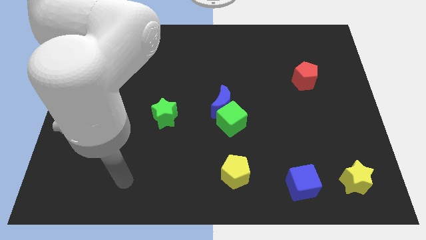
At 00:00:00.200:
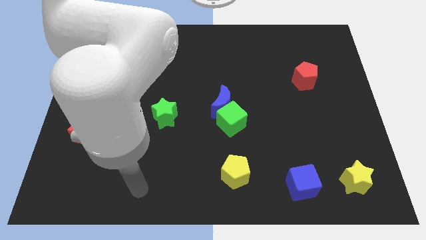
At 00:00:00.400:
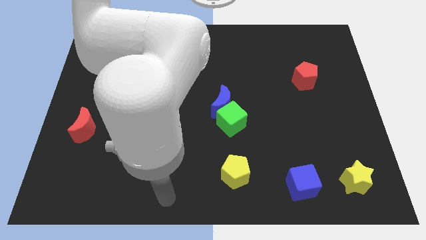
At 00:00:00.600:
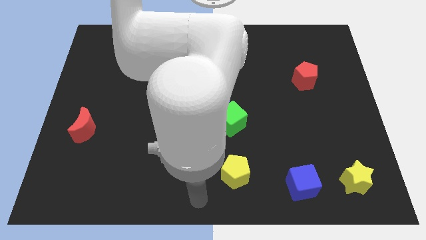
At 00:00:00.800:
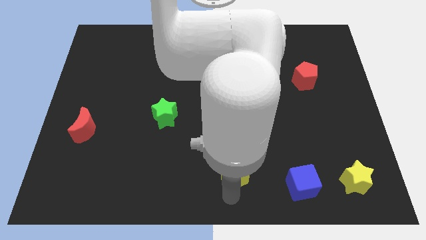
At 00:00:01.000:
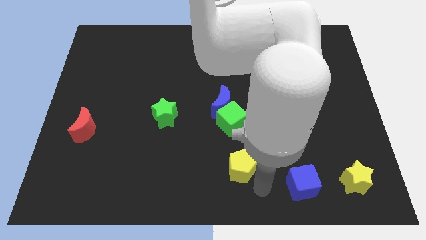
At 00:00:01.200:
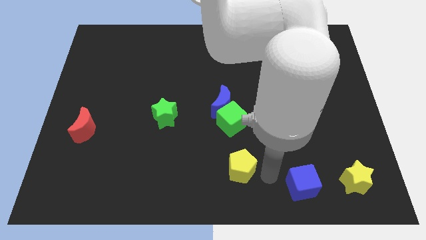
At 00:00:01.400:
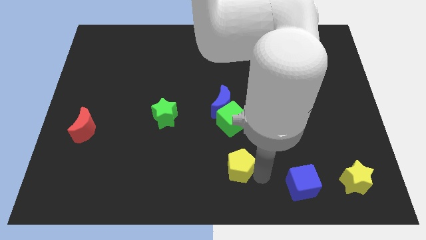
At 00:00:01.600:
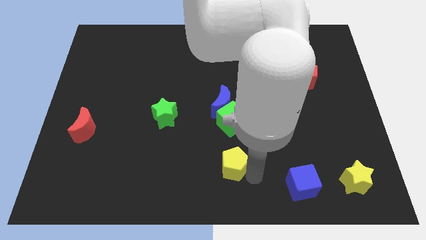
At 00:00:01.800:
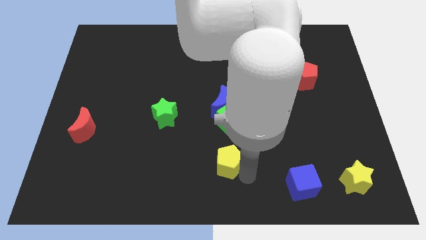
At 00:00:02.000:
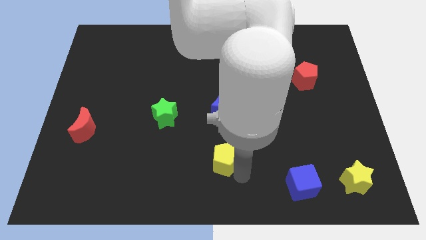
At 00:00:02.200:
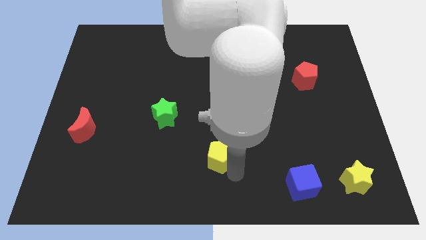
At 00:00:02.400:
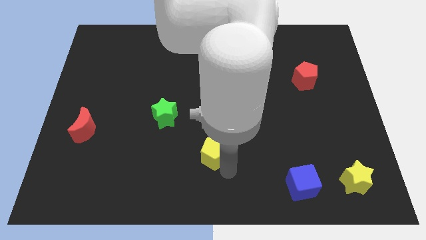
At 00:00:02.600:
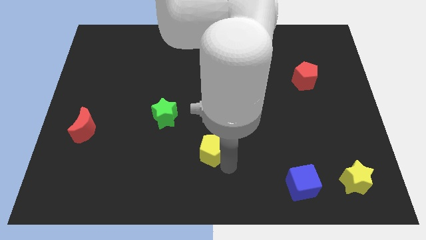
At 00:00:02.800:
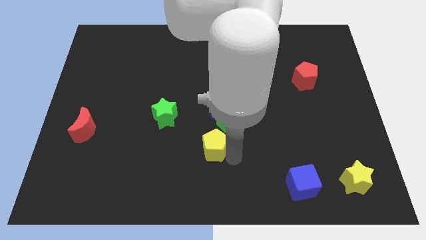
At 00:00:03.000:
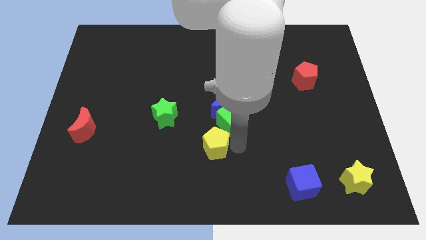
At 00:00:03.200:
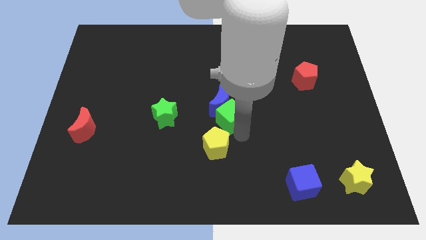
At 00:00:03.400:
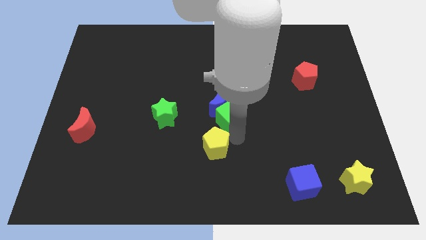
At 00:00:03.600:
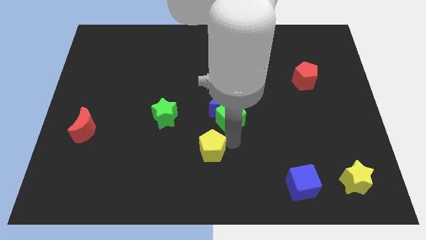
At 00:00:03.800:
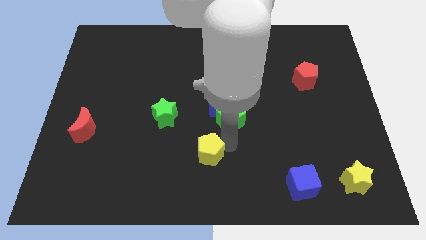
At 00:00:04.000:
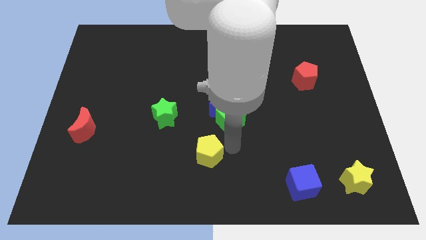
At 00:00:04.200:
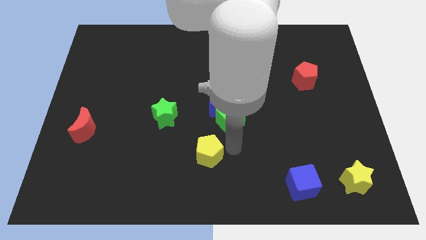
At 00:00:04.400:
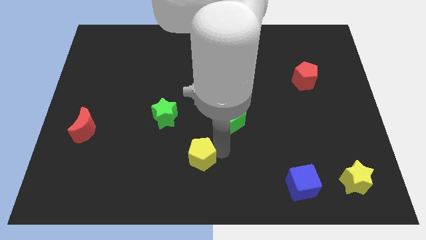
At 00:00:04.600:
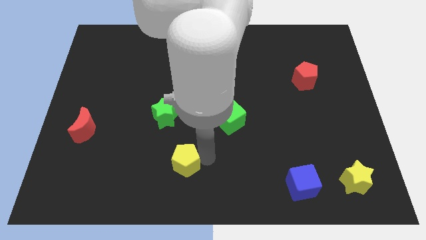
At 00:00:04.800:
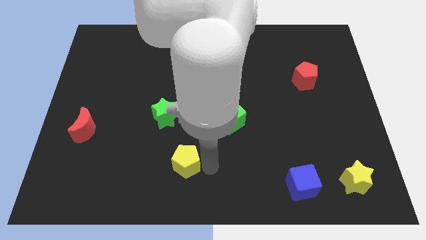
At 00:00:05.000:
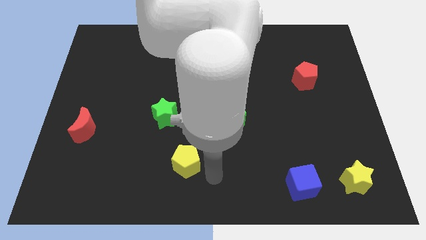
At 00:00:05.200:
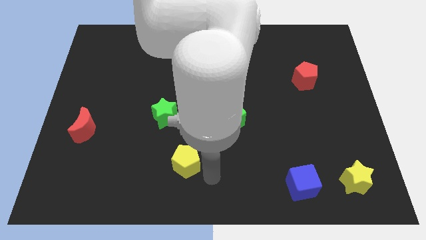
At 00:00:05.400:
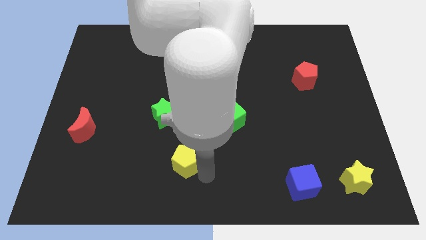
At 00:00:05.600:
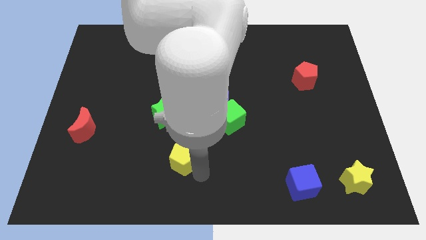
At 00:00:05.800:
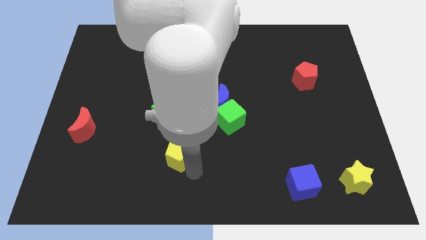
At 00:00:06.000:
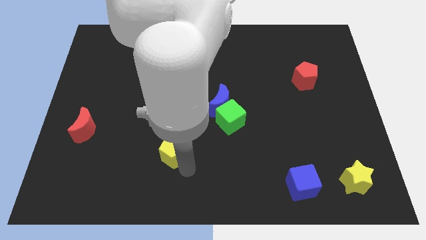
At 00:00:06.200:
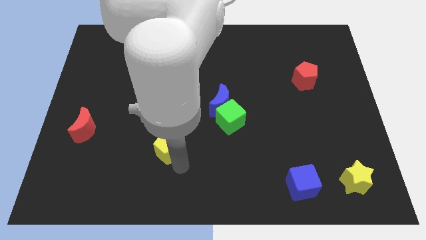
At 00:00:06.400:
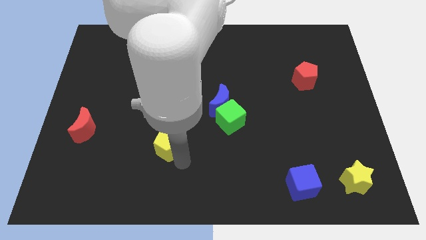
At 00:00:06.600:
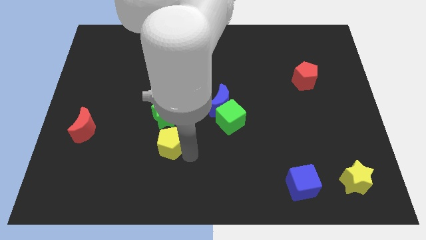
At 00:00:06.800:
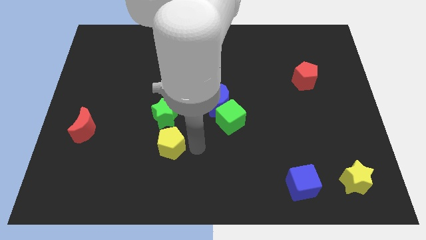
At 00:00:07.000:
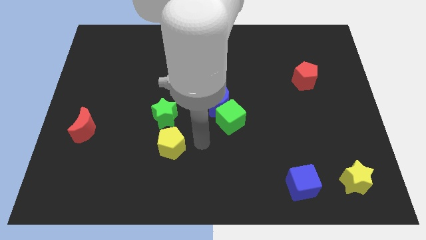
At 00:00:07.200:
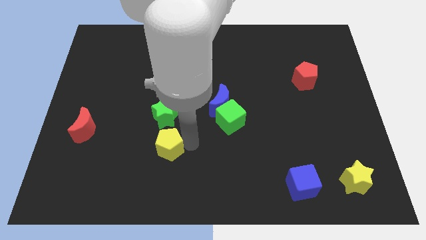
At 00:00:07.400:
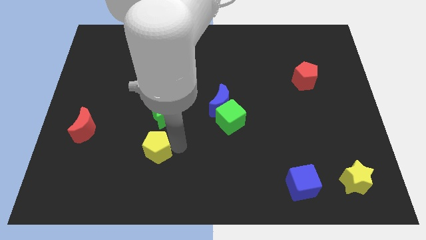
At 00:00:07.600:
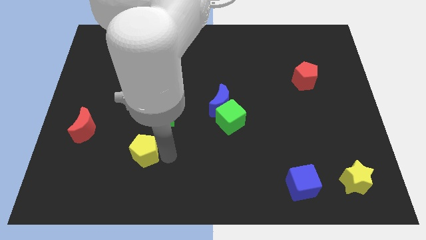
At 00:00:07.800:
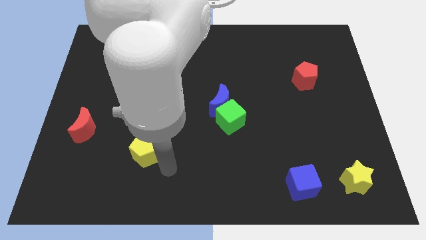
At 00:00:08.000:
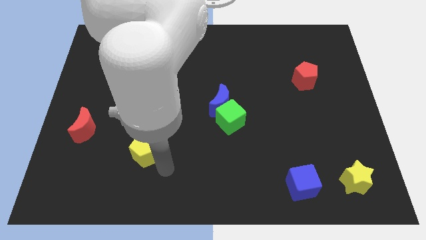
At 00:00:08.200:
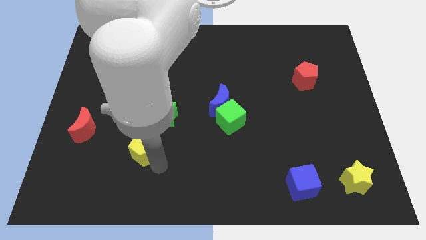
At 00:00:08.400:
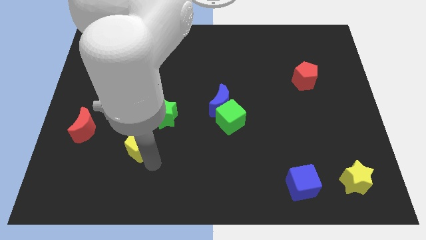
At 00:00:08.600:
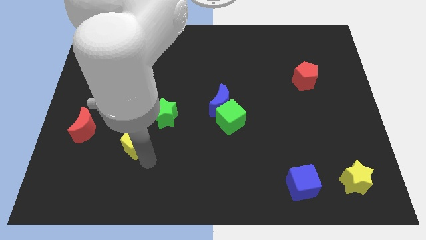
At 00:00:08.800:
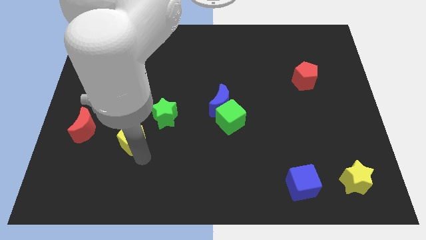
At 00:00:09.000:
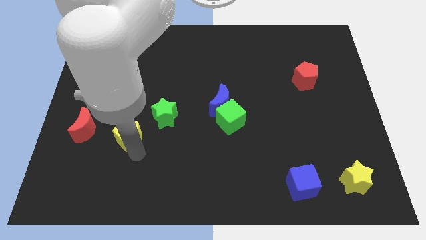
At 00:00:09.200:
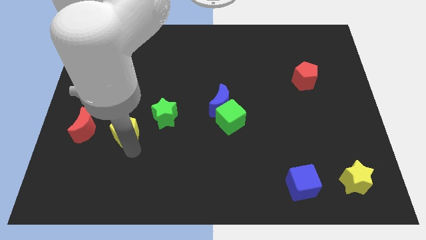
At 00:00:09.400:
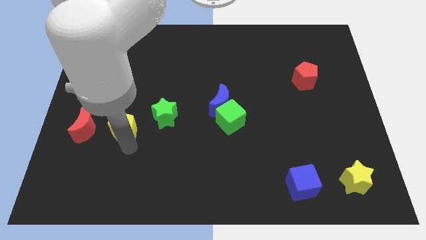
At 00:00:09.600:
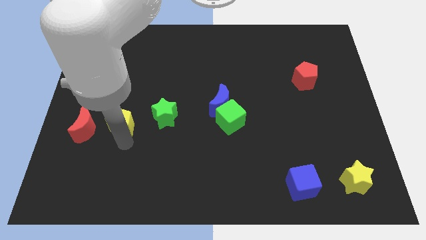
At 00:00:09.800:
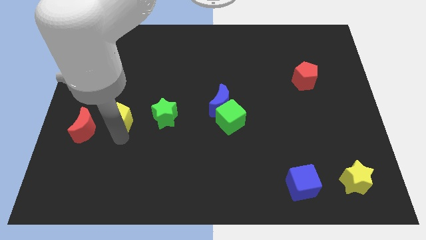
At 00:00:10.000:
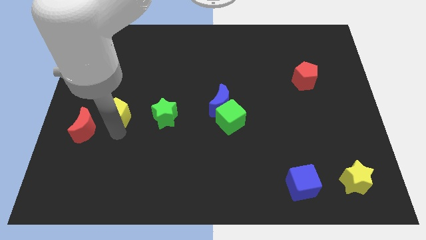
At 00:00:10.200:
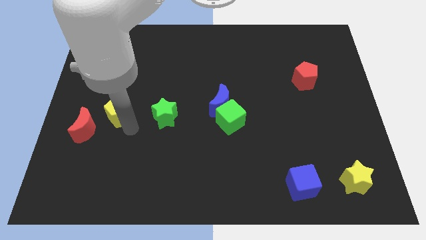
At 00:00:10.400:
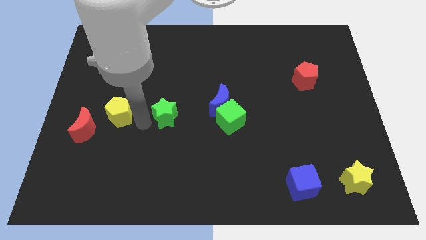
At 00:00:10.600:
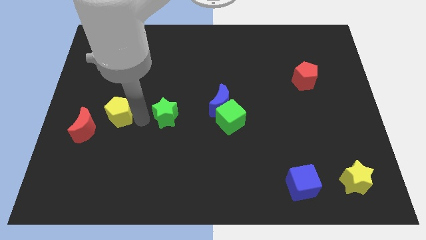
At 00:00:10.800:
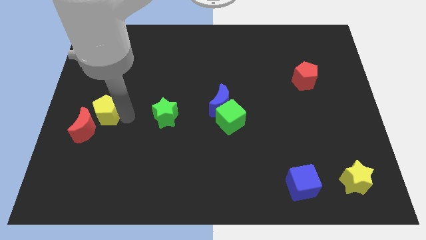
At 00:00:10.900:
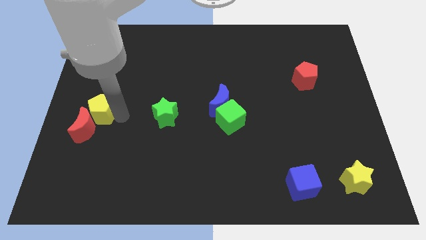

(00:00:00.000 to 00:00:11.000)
move the yellow pentagon to the left side

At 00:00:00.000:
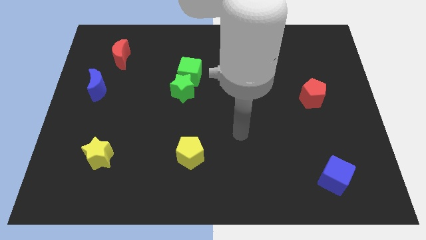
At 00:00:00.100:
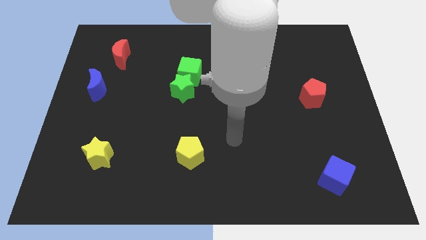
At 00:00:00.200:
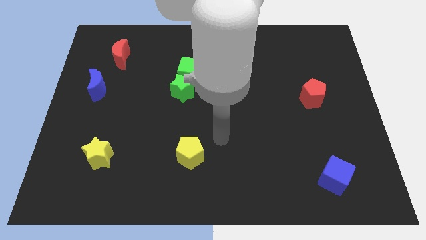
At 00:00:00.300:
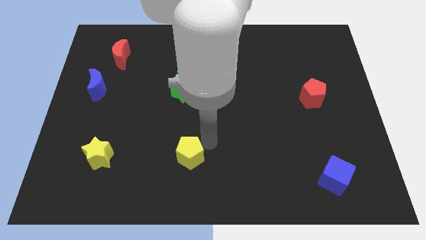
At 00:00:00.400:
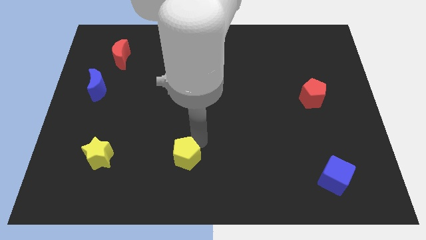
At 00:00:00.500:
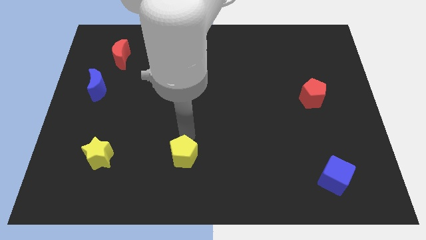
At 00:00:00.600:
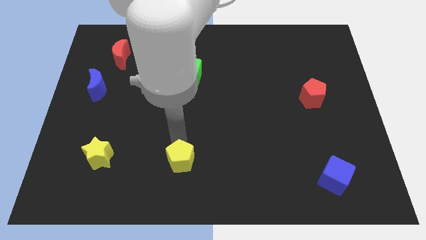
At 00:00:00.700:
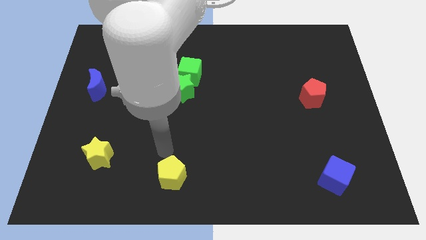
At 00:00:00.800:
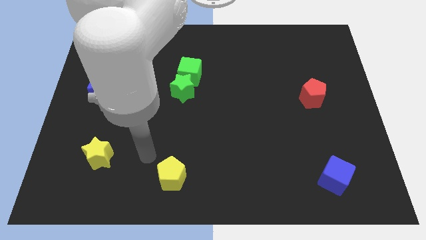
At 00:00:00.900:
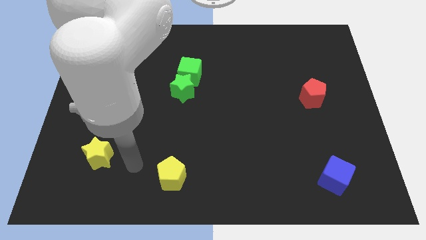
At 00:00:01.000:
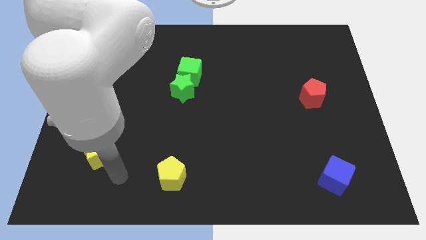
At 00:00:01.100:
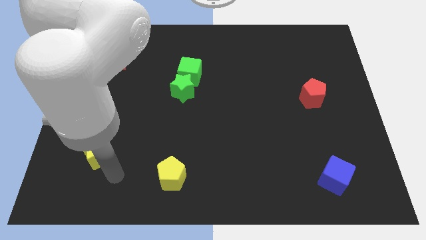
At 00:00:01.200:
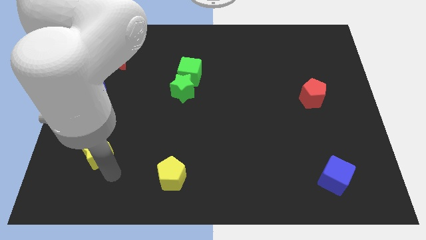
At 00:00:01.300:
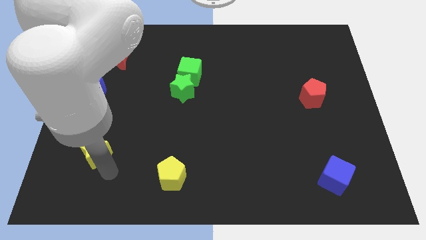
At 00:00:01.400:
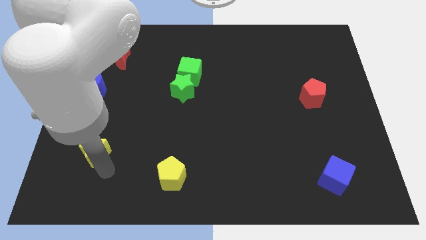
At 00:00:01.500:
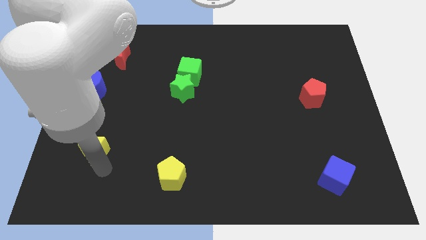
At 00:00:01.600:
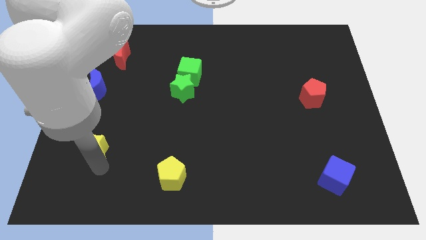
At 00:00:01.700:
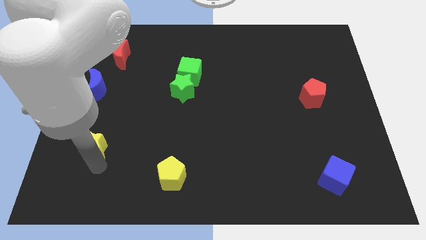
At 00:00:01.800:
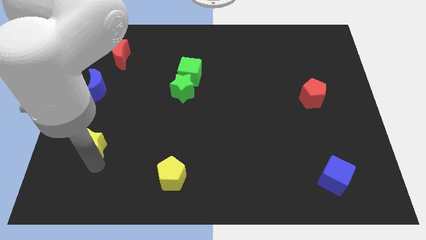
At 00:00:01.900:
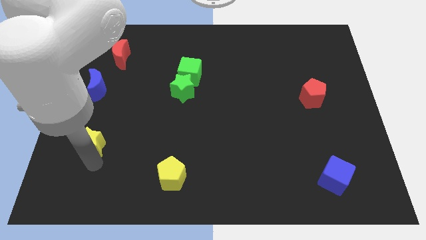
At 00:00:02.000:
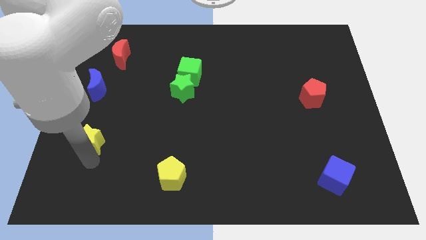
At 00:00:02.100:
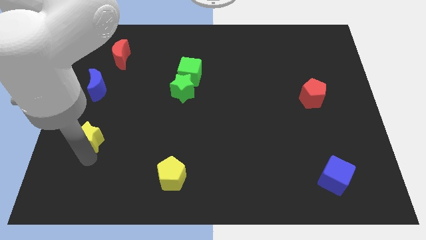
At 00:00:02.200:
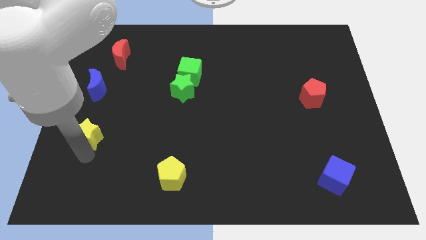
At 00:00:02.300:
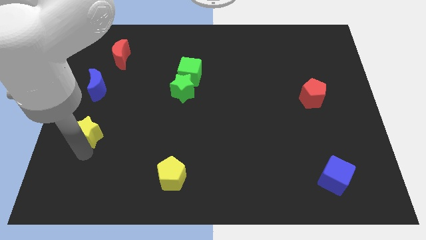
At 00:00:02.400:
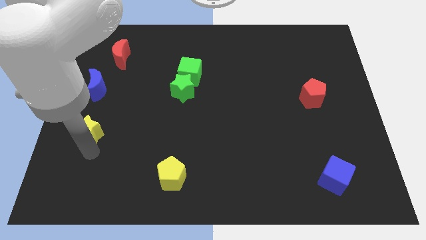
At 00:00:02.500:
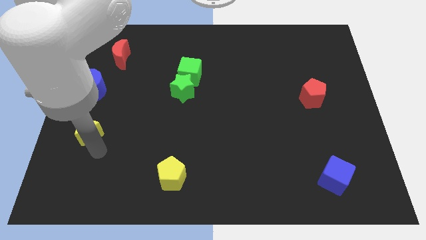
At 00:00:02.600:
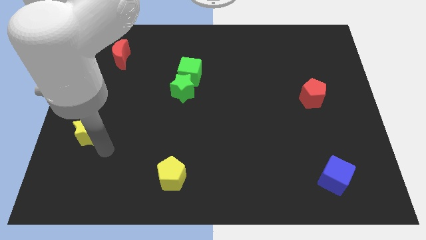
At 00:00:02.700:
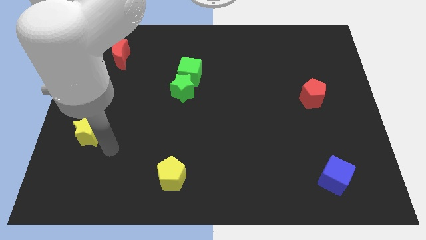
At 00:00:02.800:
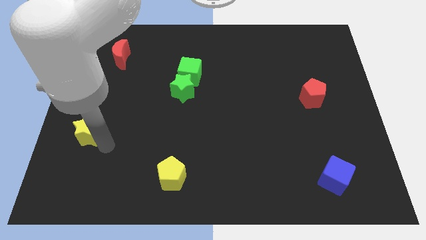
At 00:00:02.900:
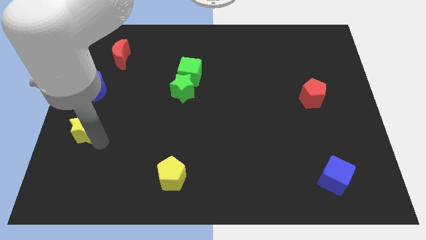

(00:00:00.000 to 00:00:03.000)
push the yellow star to the left side of the board
